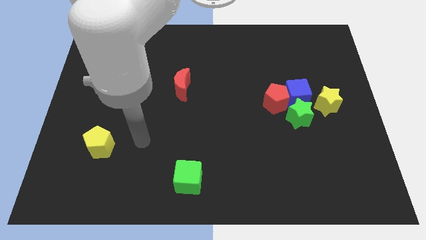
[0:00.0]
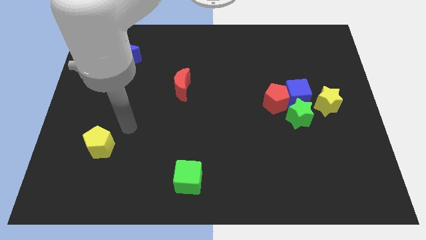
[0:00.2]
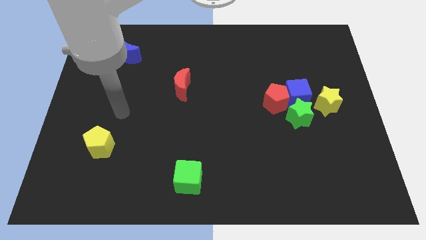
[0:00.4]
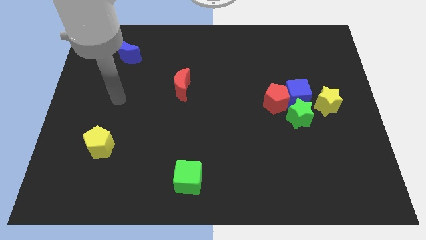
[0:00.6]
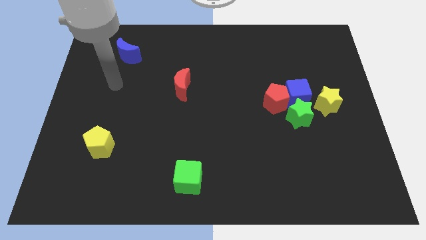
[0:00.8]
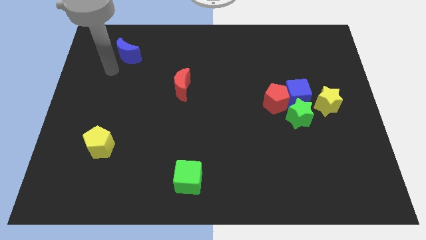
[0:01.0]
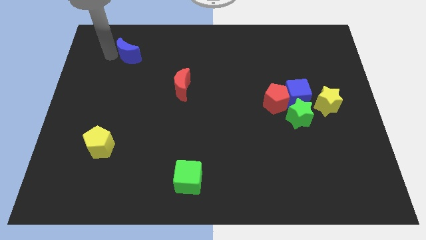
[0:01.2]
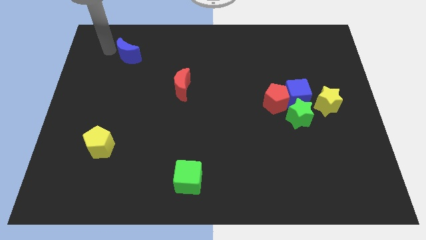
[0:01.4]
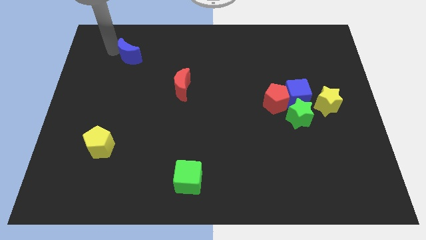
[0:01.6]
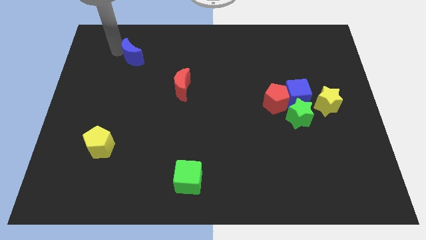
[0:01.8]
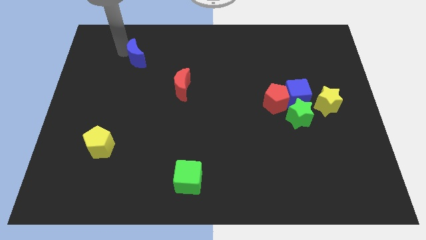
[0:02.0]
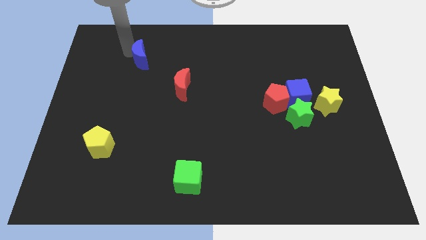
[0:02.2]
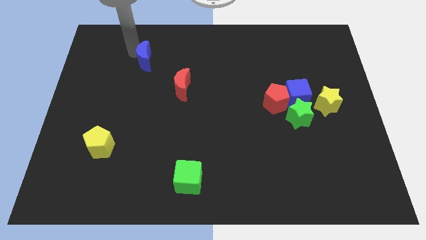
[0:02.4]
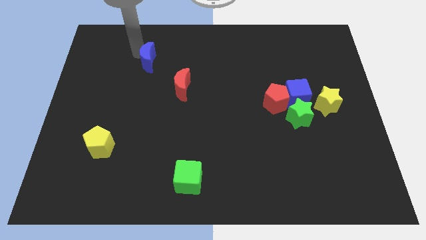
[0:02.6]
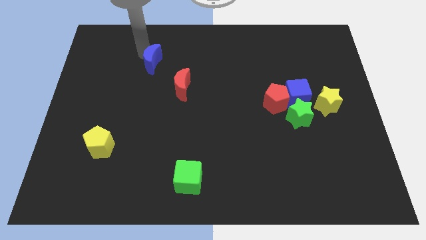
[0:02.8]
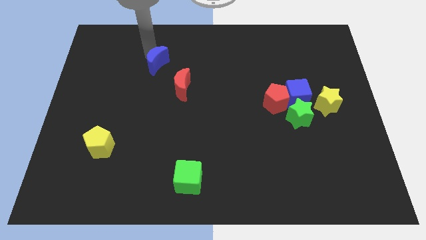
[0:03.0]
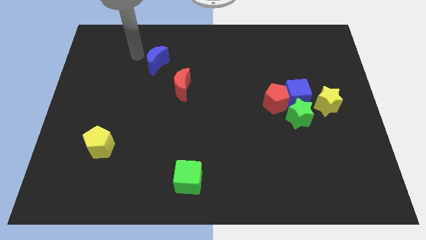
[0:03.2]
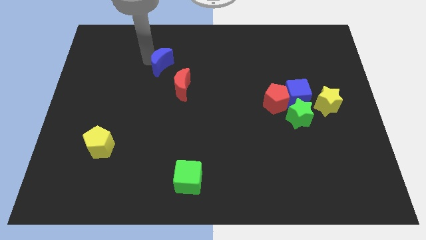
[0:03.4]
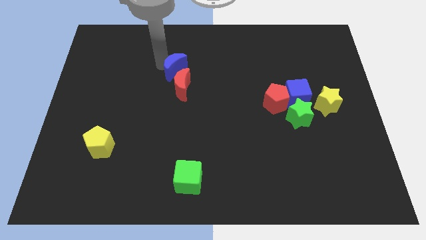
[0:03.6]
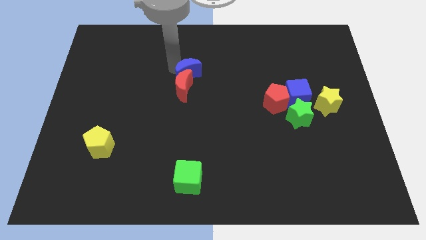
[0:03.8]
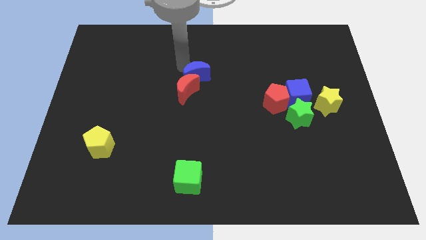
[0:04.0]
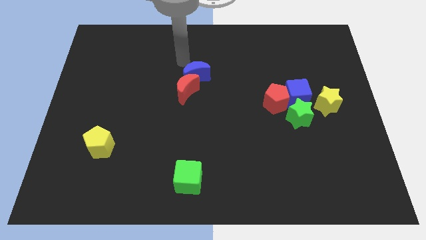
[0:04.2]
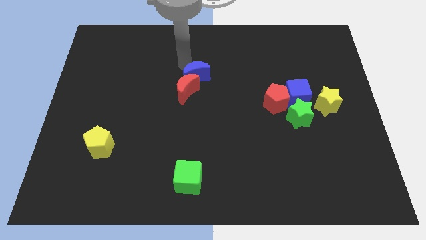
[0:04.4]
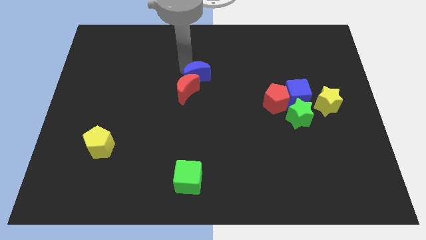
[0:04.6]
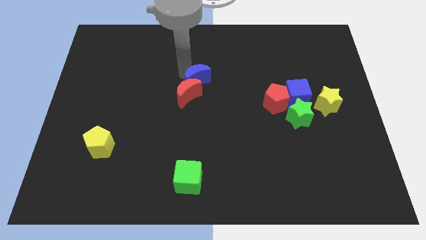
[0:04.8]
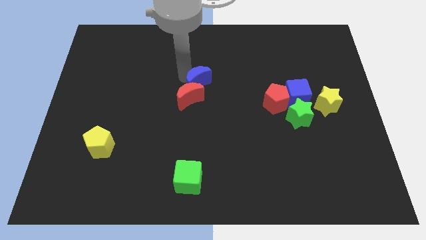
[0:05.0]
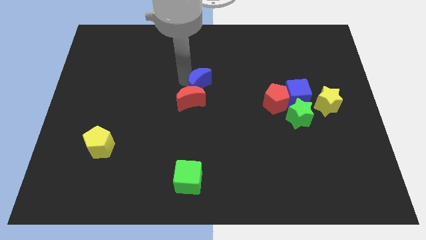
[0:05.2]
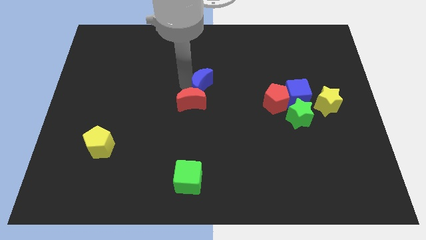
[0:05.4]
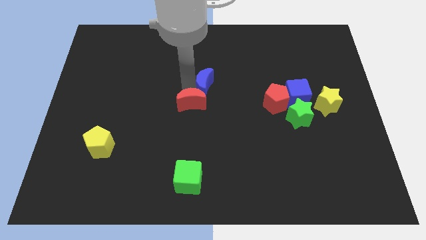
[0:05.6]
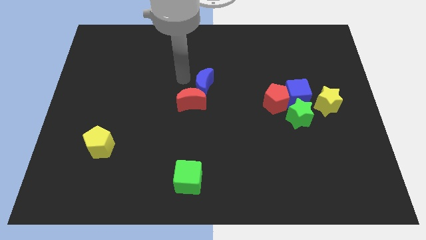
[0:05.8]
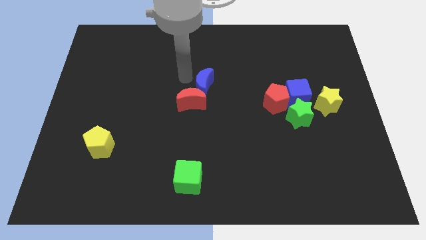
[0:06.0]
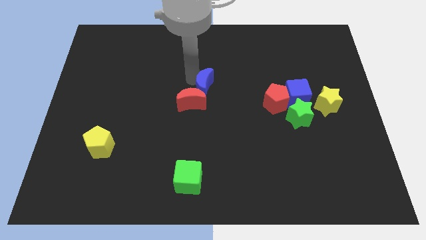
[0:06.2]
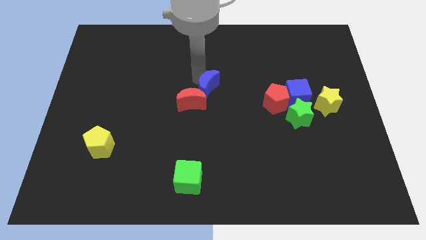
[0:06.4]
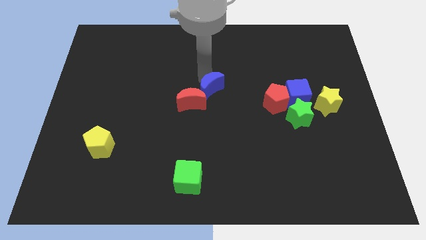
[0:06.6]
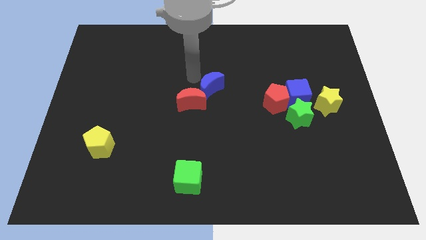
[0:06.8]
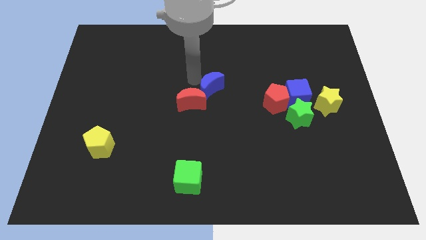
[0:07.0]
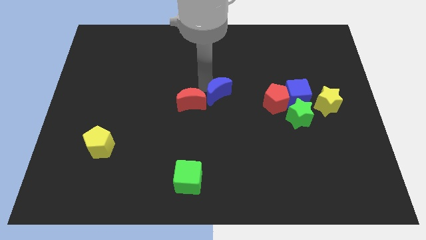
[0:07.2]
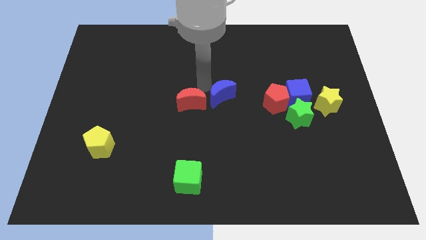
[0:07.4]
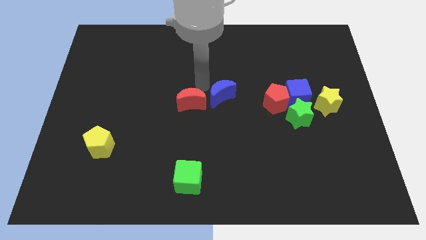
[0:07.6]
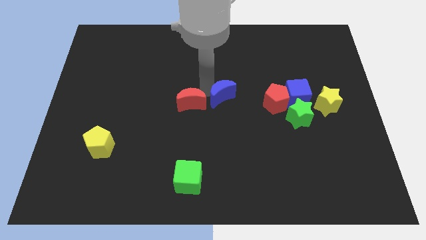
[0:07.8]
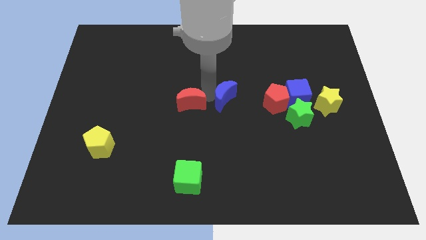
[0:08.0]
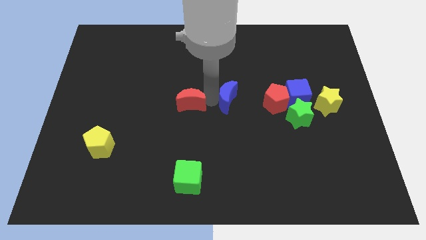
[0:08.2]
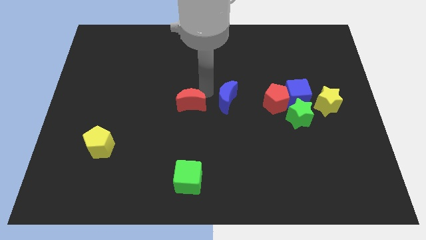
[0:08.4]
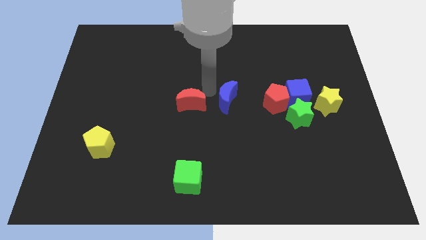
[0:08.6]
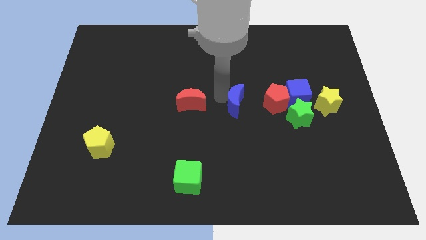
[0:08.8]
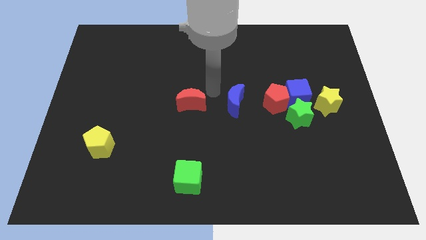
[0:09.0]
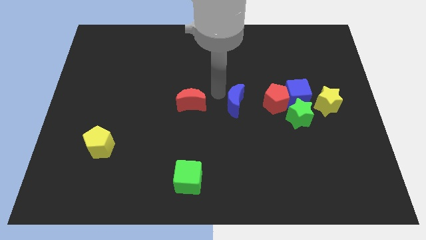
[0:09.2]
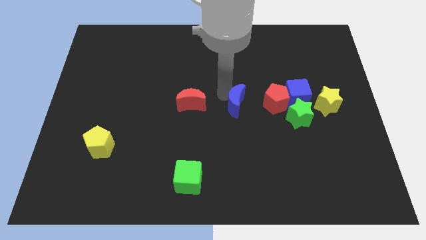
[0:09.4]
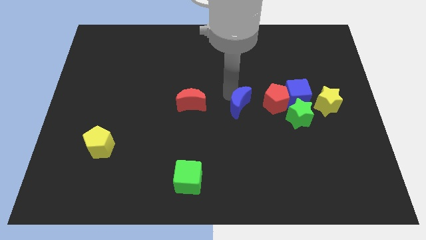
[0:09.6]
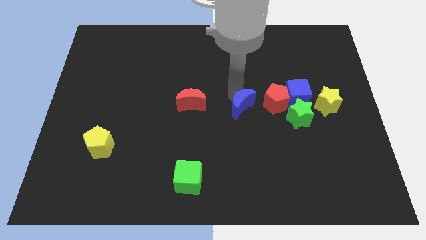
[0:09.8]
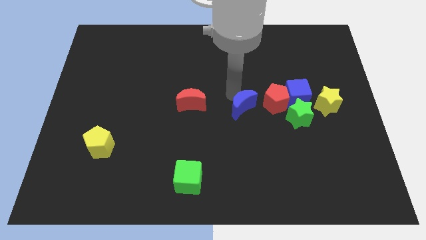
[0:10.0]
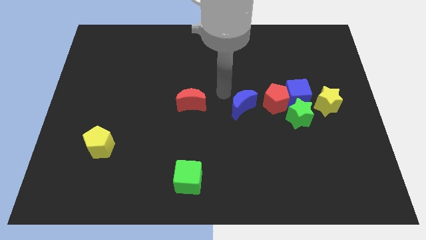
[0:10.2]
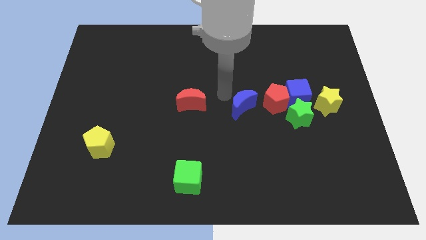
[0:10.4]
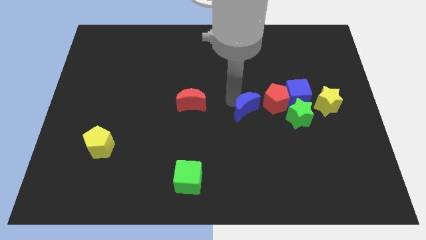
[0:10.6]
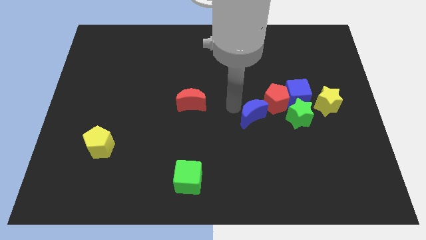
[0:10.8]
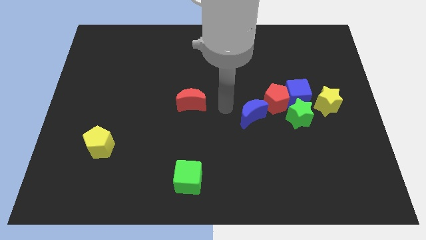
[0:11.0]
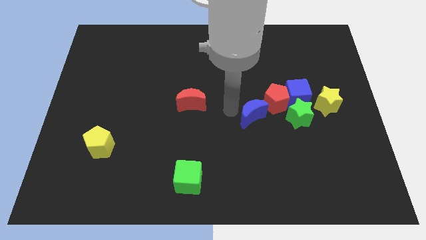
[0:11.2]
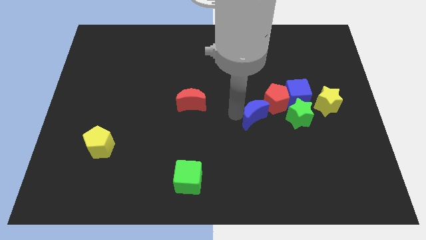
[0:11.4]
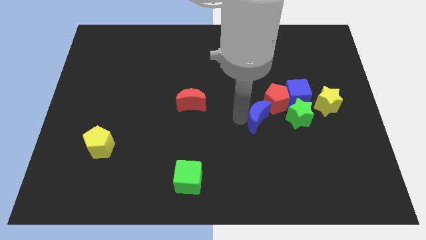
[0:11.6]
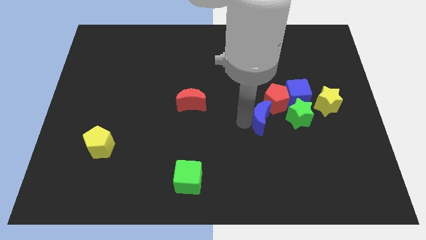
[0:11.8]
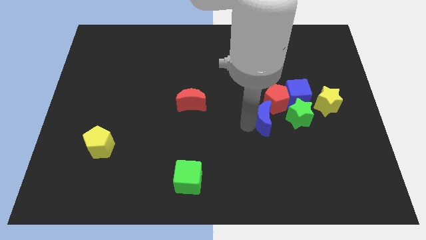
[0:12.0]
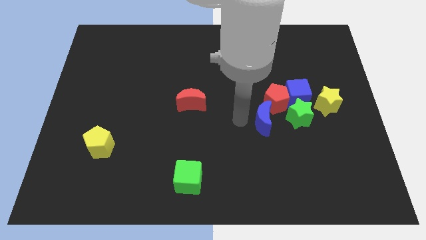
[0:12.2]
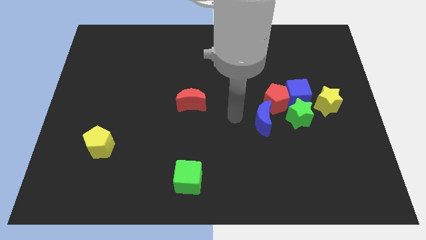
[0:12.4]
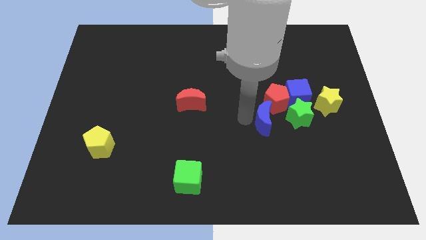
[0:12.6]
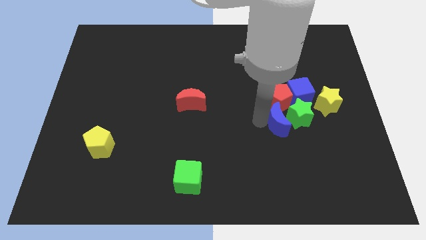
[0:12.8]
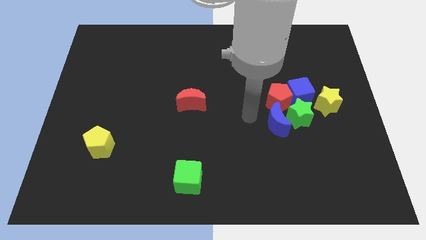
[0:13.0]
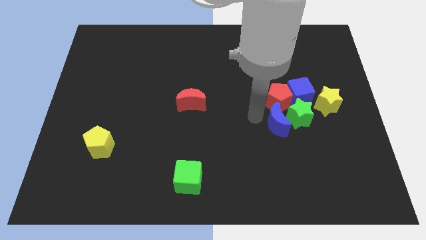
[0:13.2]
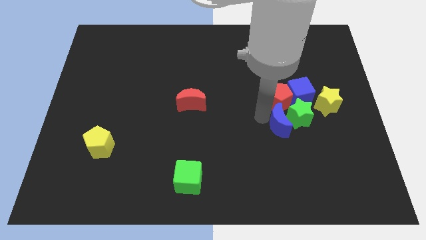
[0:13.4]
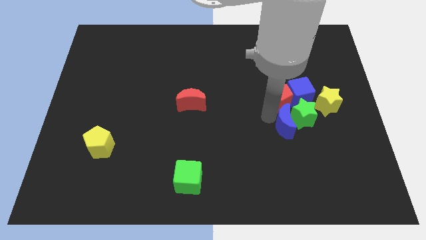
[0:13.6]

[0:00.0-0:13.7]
move the blue moon below the blue cube

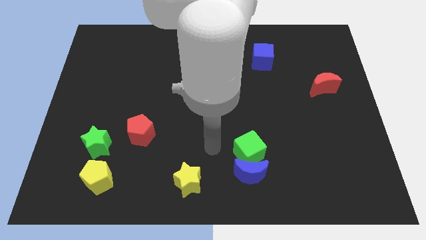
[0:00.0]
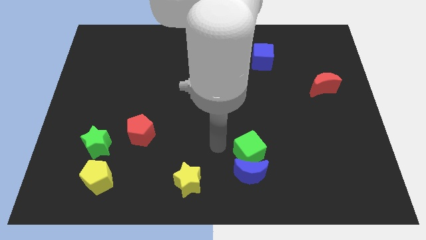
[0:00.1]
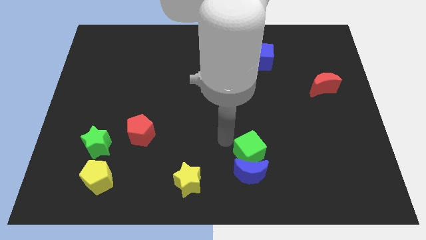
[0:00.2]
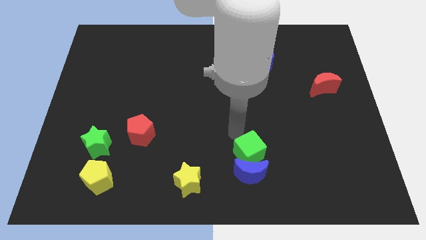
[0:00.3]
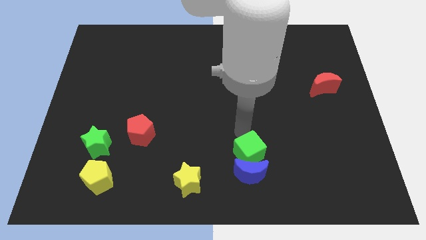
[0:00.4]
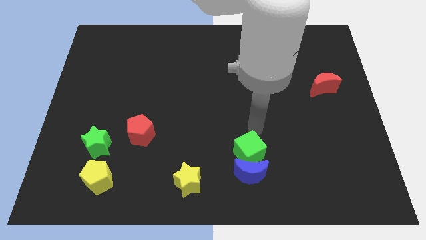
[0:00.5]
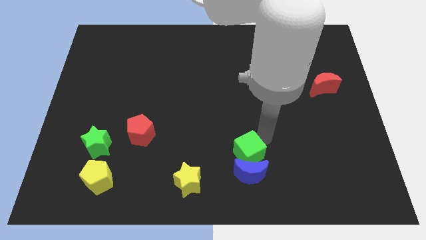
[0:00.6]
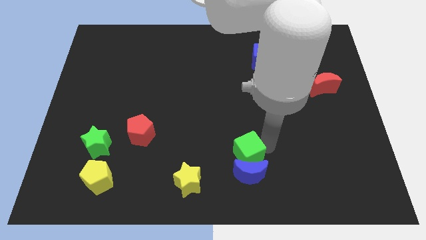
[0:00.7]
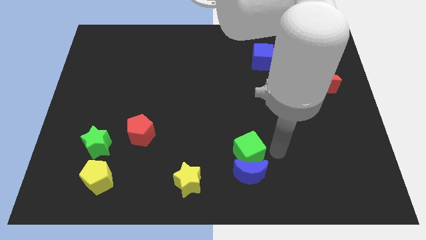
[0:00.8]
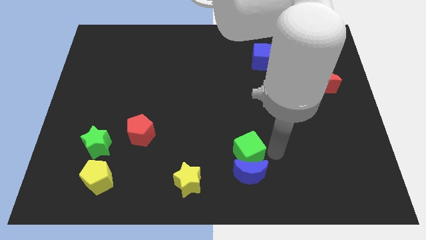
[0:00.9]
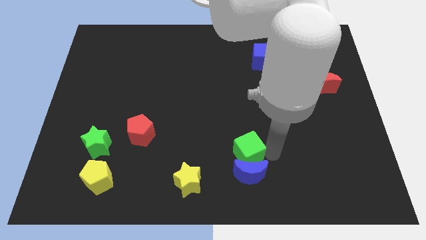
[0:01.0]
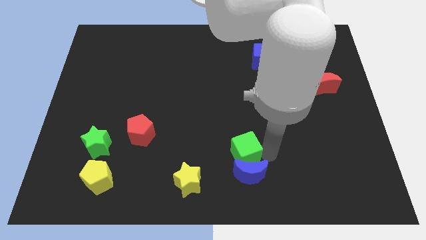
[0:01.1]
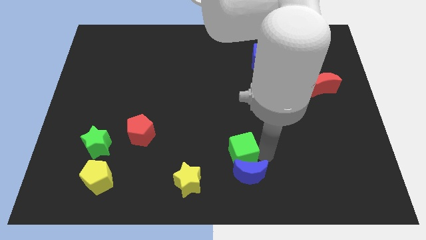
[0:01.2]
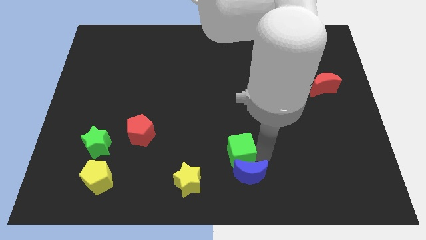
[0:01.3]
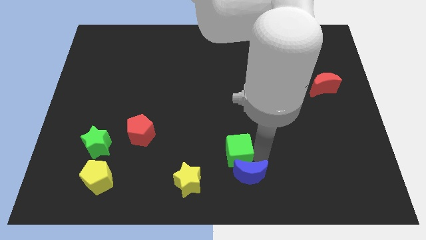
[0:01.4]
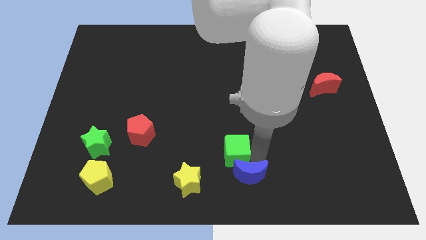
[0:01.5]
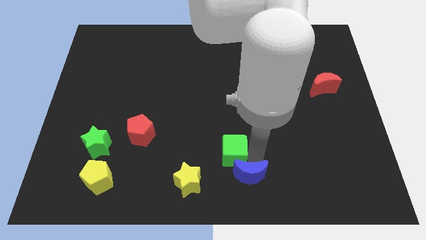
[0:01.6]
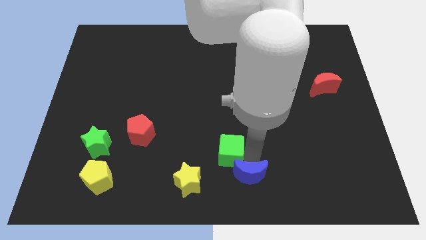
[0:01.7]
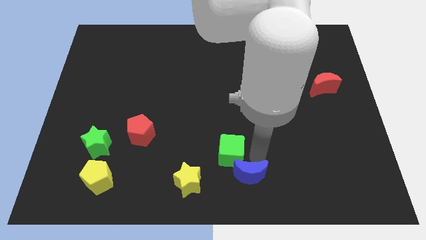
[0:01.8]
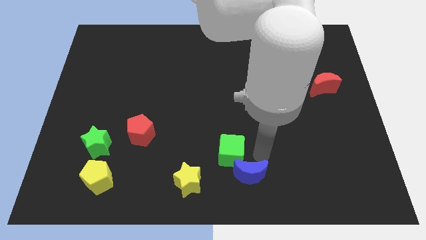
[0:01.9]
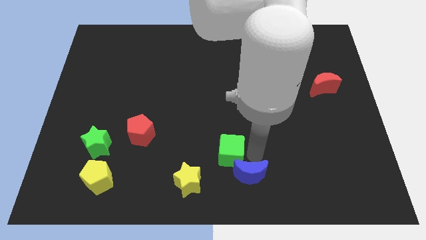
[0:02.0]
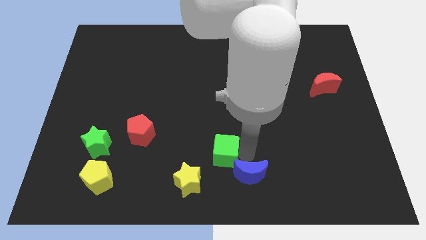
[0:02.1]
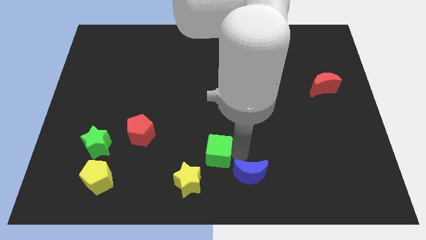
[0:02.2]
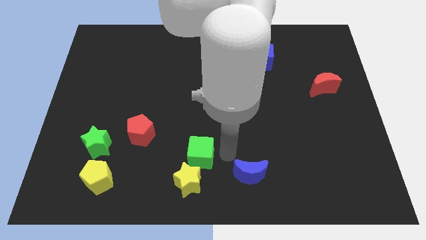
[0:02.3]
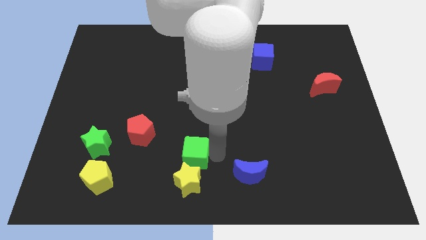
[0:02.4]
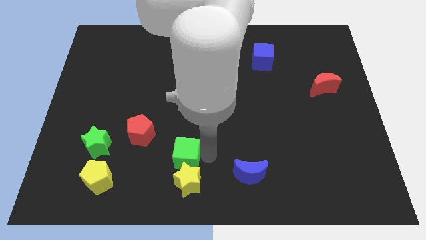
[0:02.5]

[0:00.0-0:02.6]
move the green cube diagonally down and to the right of the red pentagon
